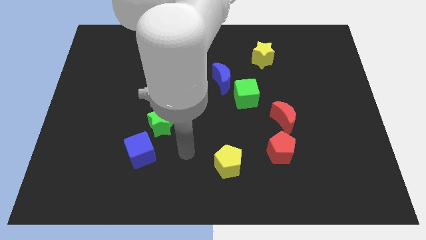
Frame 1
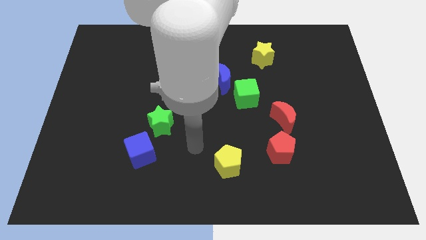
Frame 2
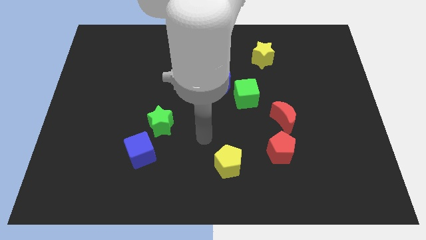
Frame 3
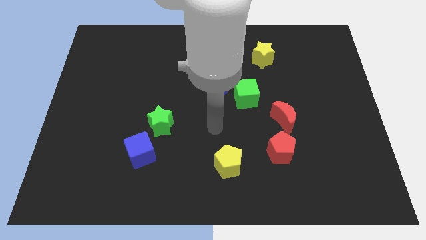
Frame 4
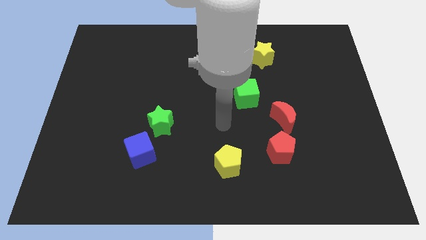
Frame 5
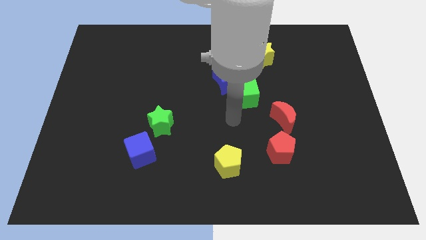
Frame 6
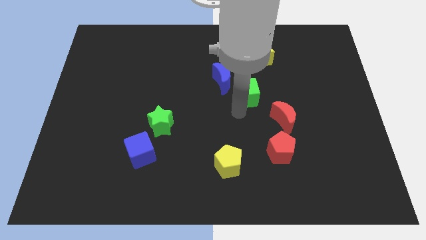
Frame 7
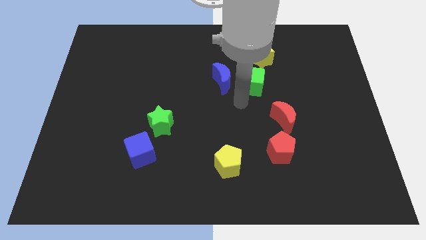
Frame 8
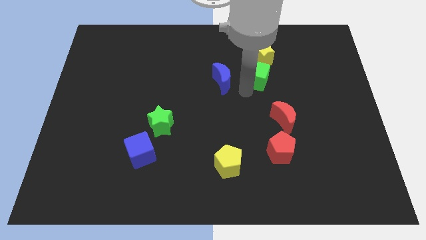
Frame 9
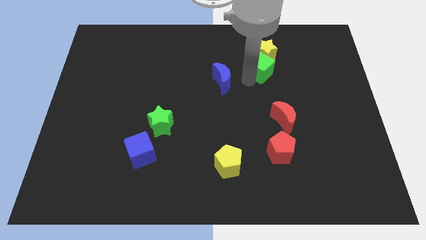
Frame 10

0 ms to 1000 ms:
move the blue moon away from the green cube

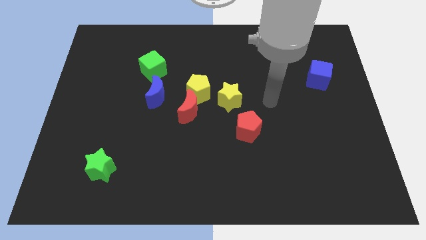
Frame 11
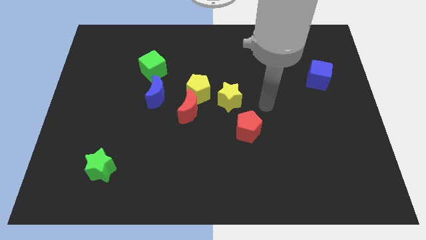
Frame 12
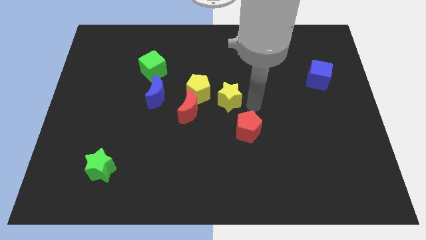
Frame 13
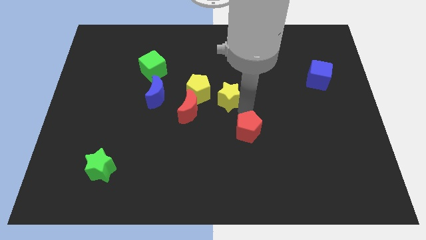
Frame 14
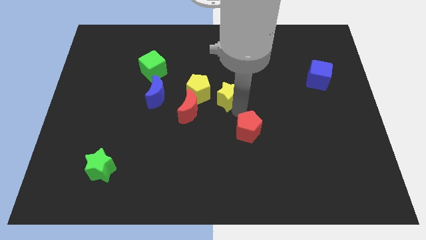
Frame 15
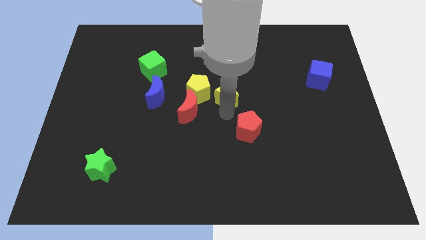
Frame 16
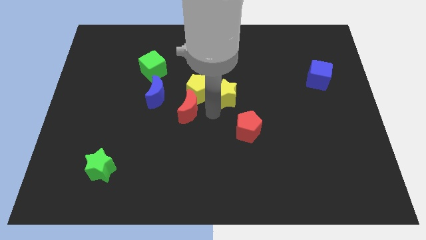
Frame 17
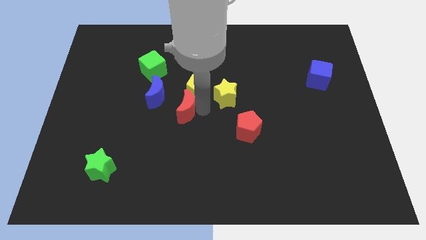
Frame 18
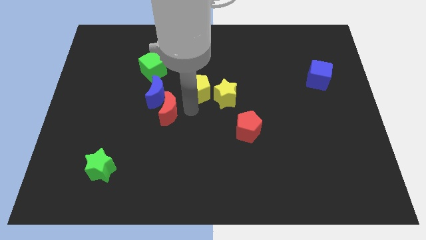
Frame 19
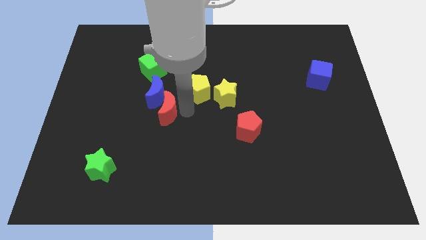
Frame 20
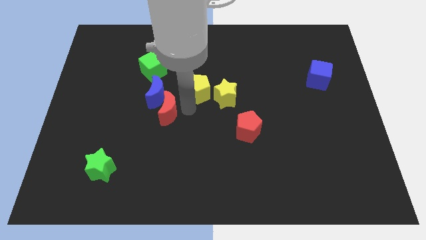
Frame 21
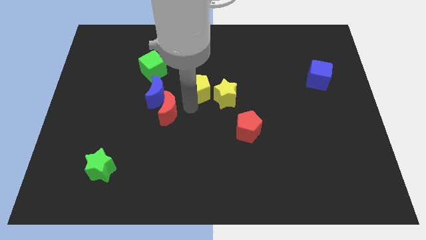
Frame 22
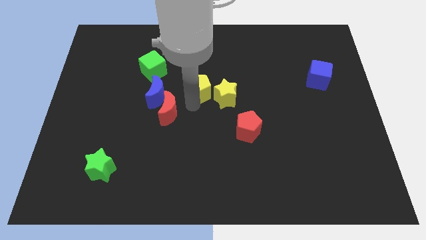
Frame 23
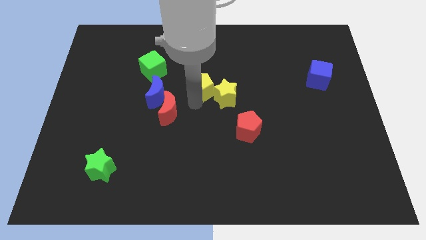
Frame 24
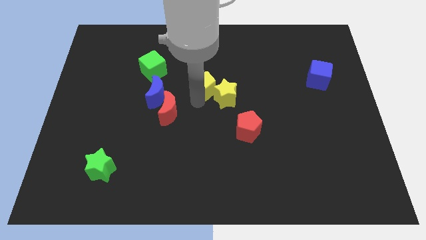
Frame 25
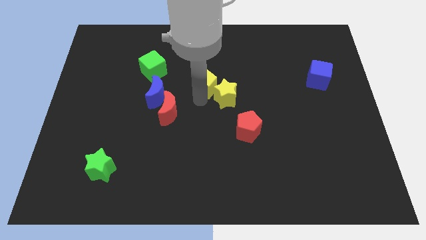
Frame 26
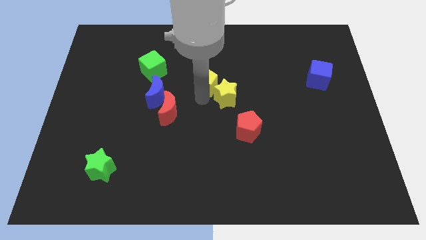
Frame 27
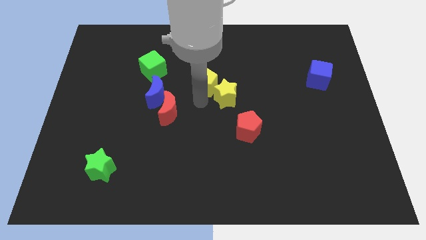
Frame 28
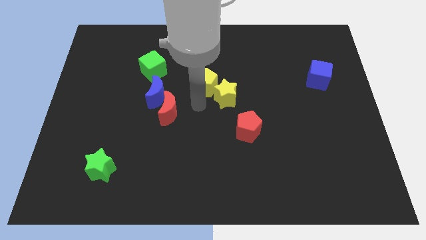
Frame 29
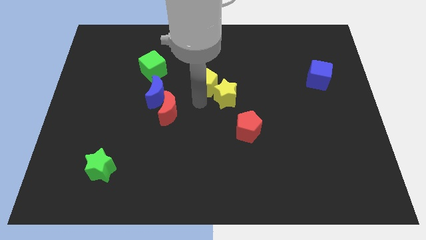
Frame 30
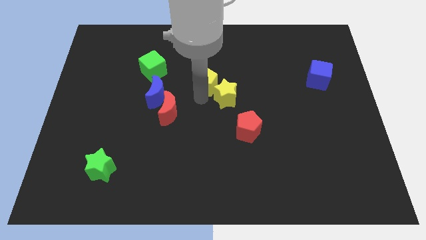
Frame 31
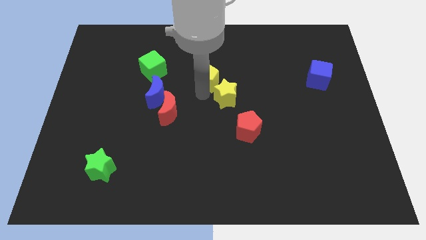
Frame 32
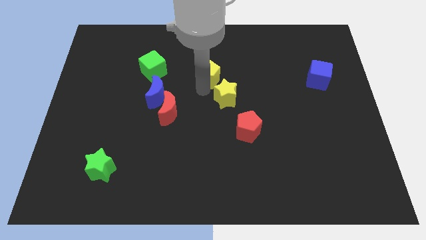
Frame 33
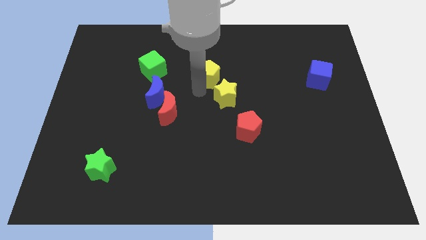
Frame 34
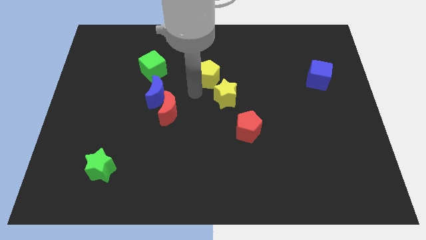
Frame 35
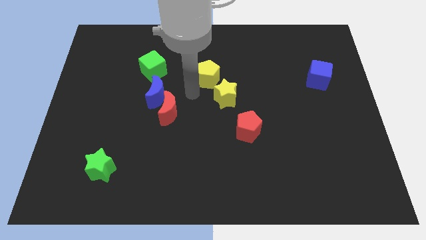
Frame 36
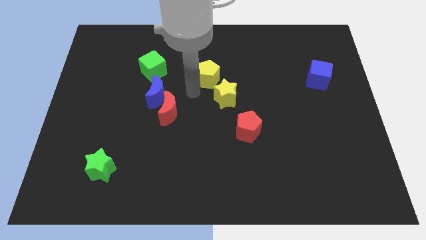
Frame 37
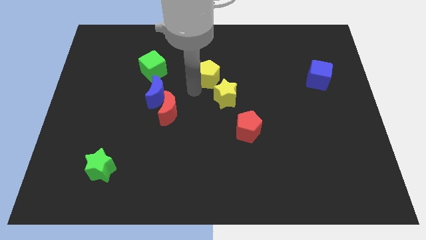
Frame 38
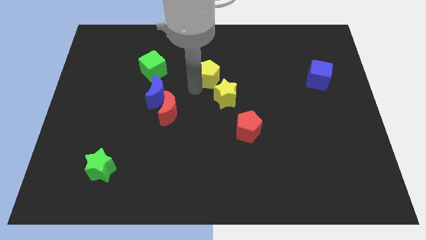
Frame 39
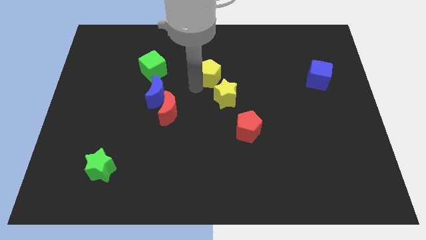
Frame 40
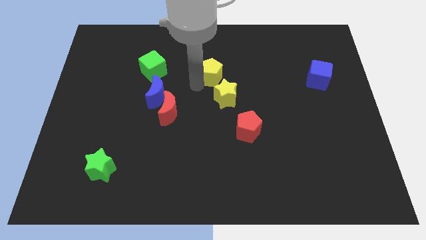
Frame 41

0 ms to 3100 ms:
move the yellow pentagon away from the clump

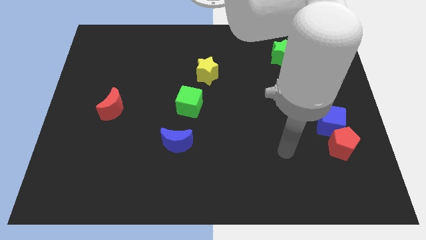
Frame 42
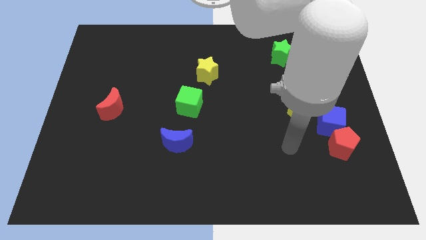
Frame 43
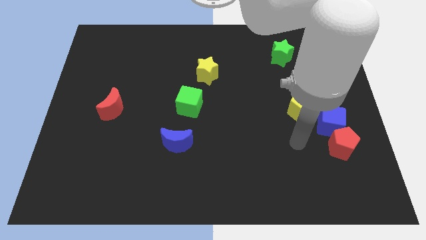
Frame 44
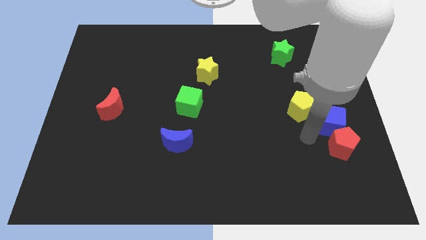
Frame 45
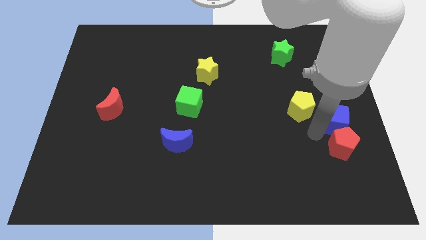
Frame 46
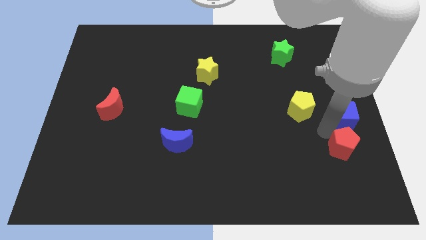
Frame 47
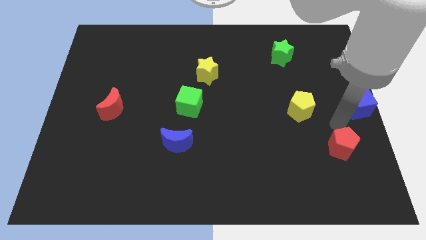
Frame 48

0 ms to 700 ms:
move the red pentagon away from the blue cube

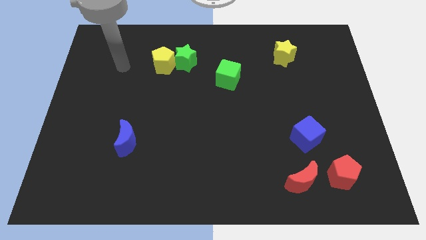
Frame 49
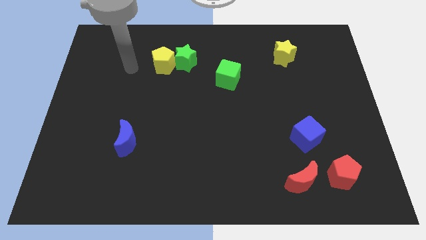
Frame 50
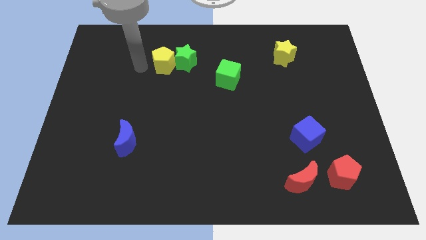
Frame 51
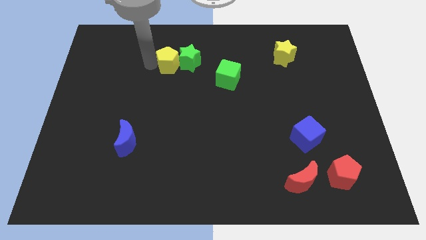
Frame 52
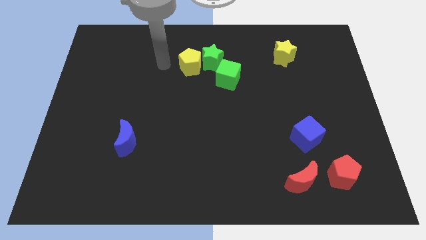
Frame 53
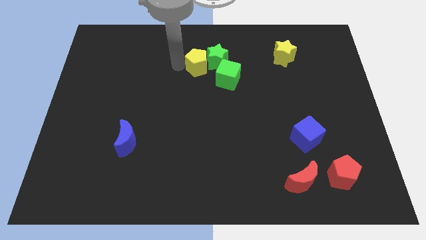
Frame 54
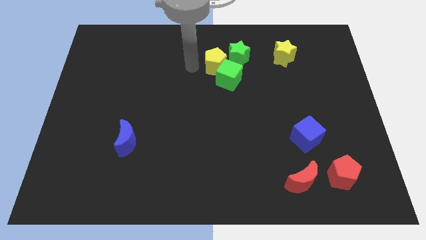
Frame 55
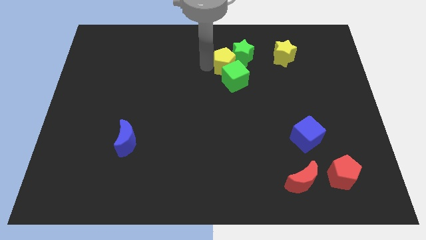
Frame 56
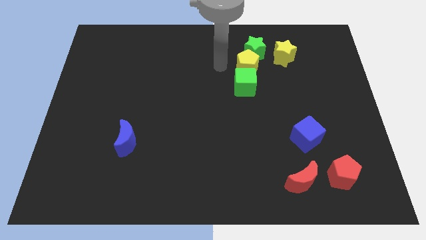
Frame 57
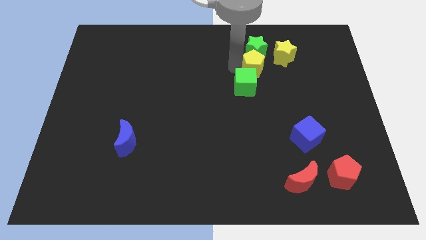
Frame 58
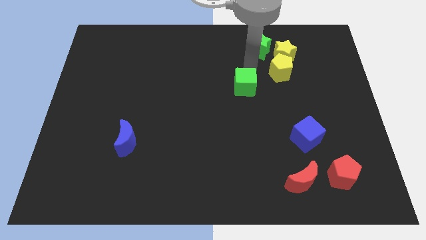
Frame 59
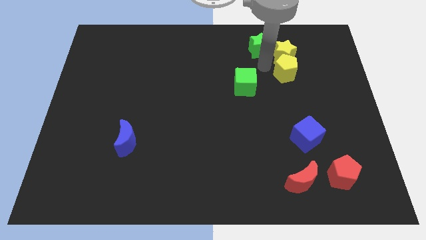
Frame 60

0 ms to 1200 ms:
move the green star away from the yellow pentagon

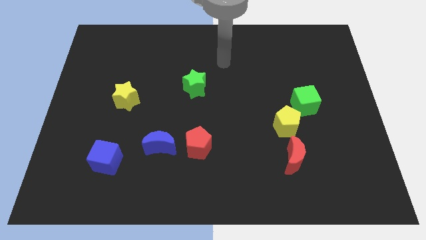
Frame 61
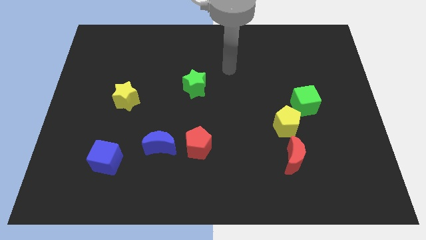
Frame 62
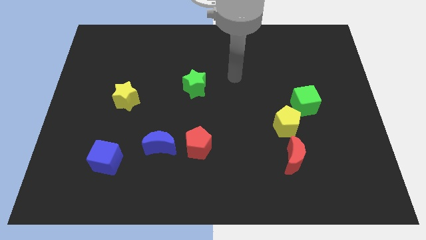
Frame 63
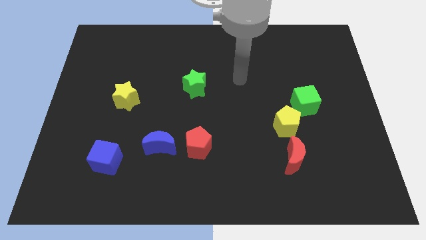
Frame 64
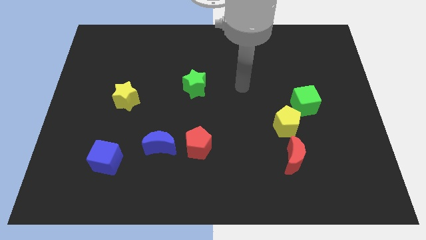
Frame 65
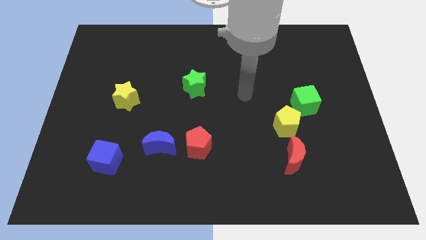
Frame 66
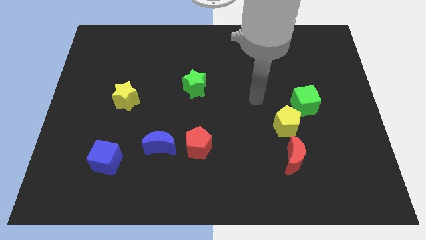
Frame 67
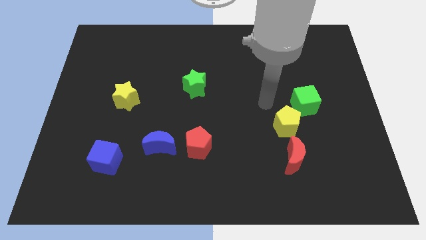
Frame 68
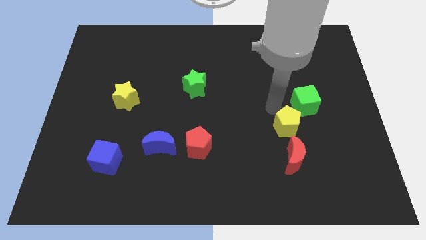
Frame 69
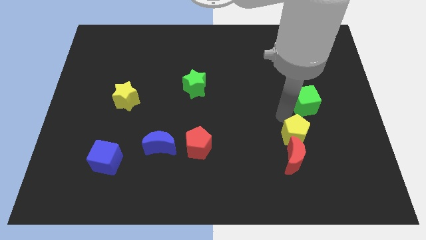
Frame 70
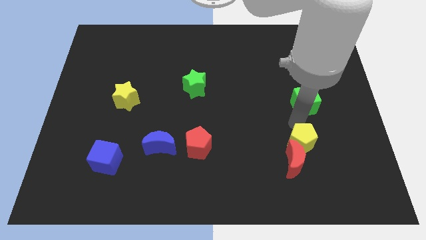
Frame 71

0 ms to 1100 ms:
separate the green cube from the yellow pentagon

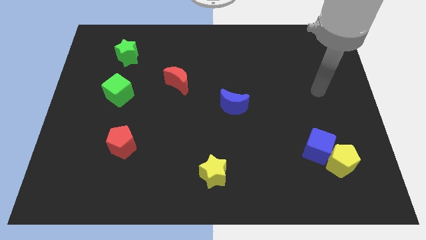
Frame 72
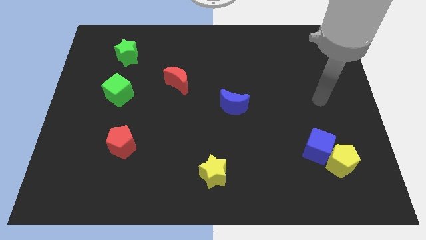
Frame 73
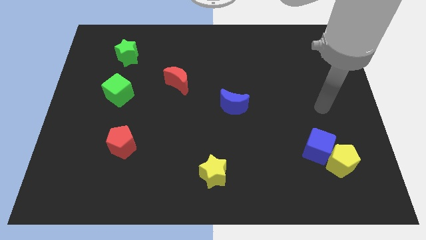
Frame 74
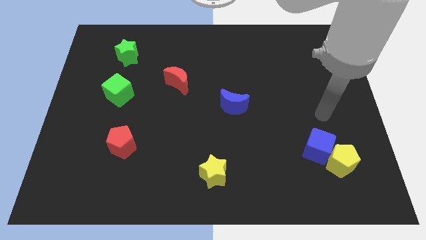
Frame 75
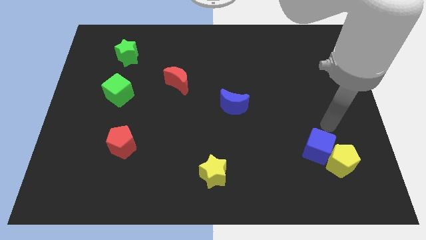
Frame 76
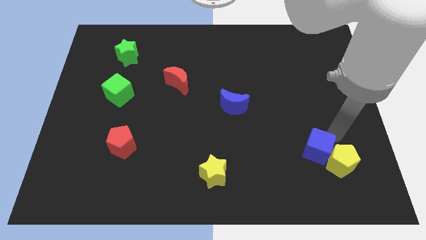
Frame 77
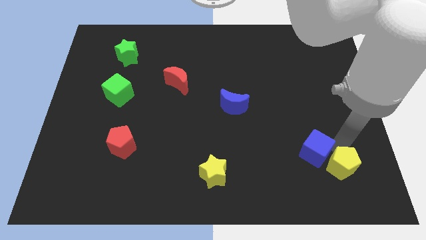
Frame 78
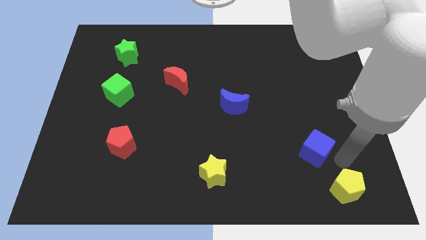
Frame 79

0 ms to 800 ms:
separate the blue cube from the yellow pentagon

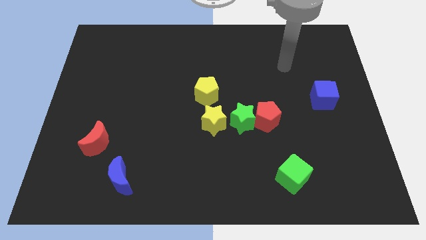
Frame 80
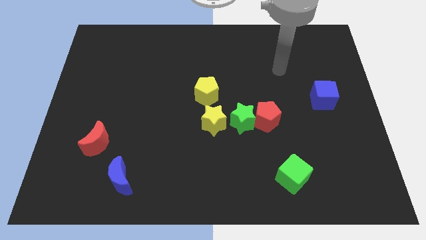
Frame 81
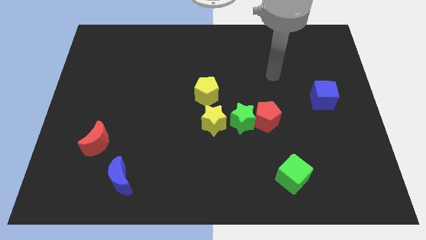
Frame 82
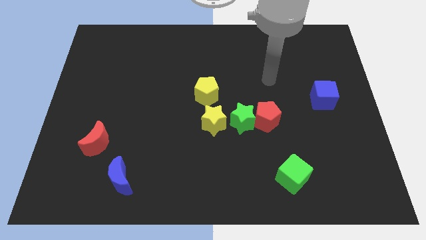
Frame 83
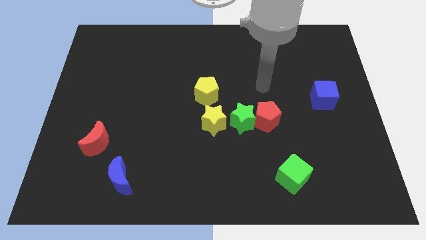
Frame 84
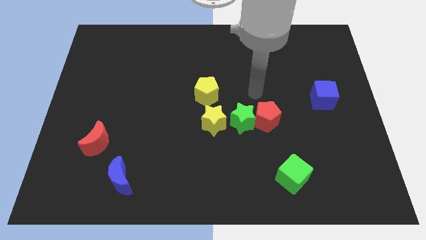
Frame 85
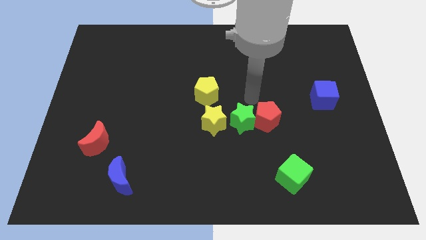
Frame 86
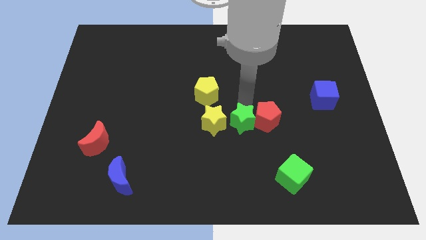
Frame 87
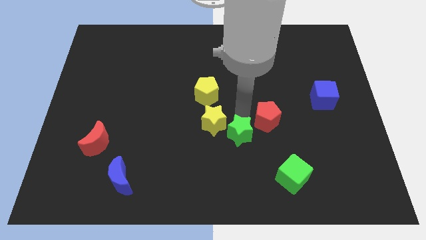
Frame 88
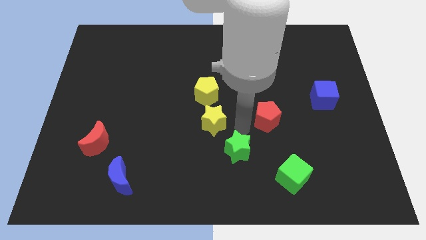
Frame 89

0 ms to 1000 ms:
separate the red pentagon from the green star

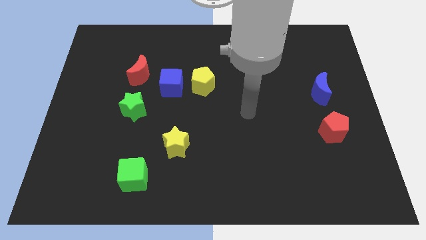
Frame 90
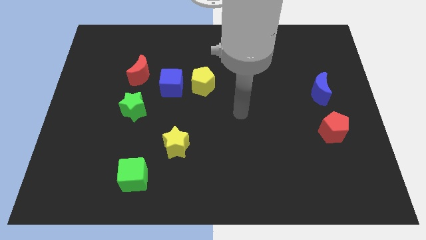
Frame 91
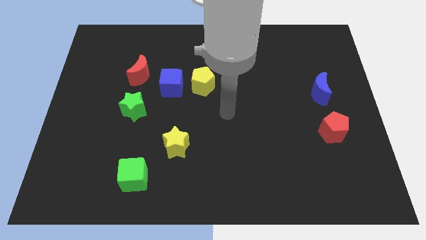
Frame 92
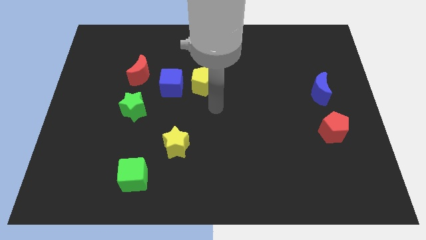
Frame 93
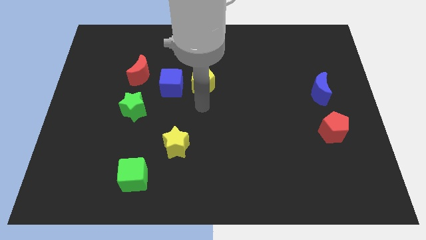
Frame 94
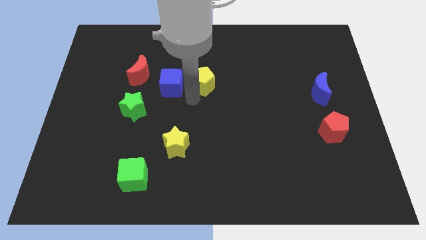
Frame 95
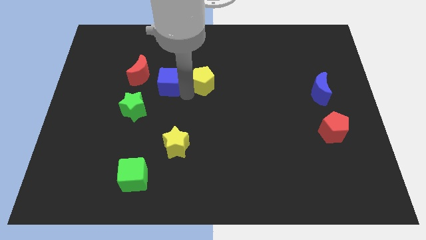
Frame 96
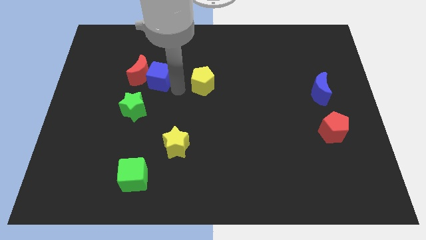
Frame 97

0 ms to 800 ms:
pull the yellow pentagon apart from the blue cube
